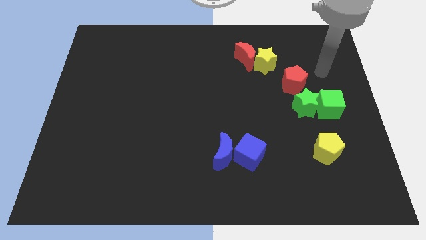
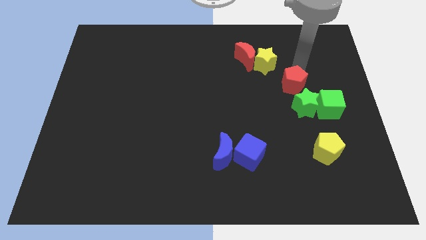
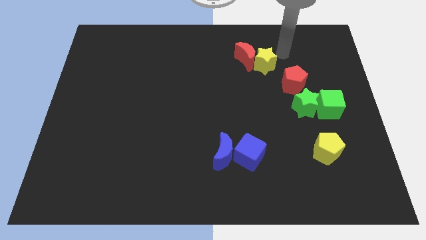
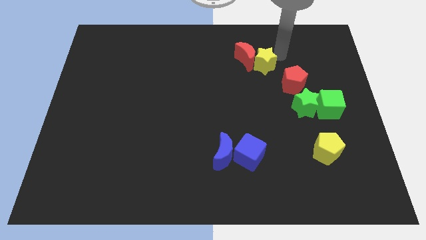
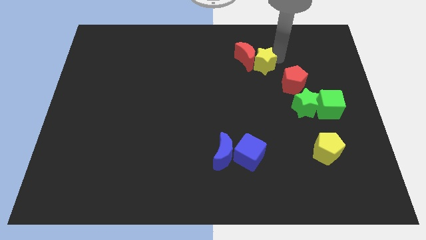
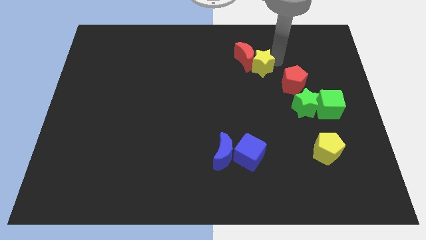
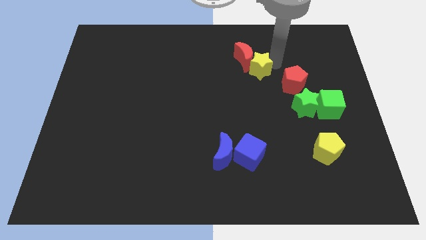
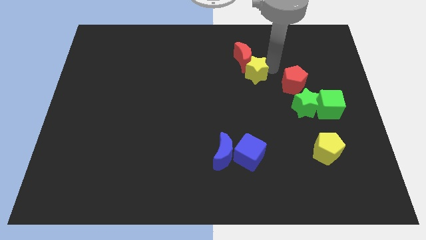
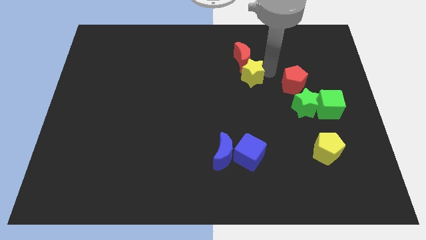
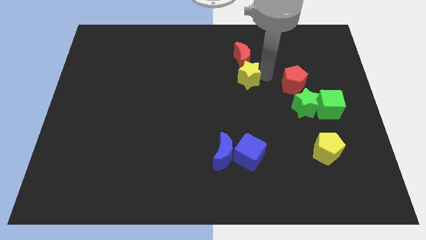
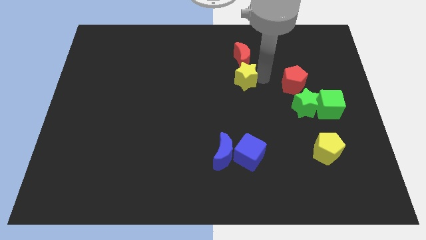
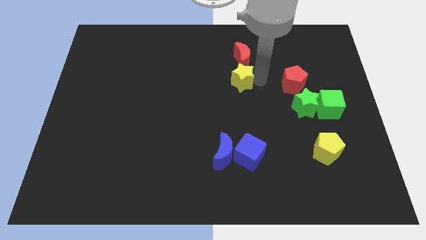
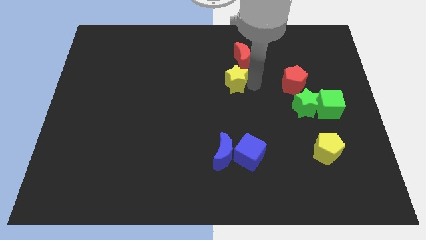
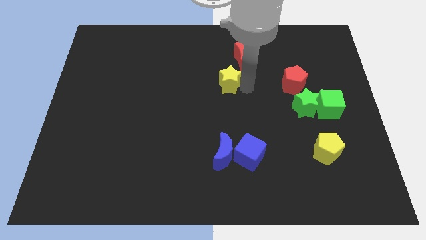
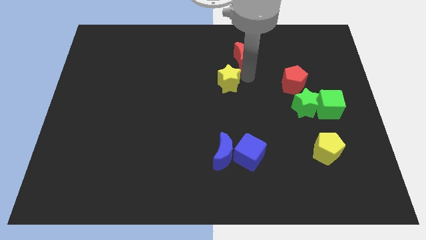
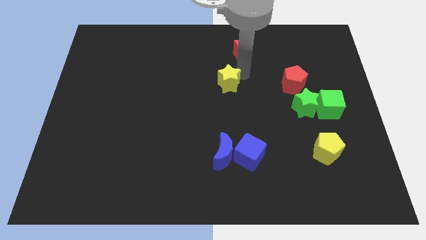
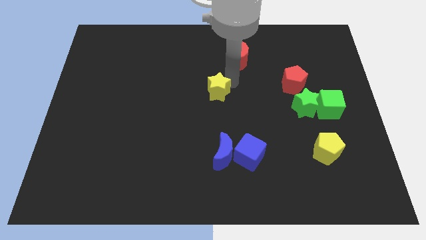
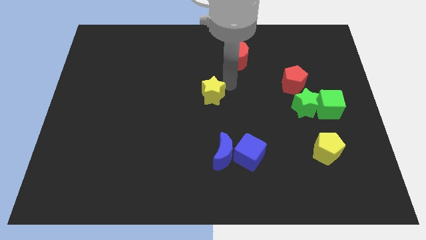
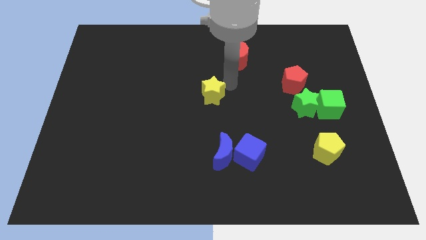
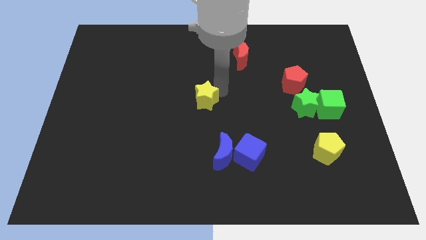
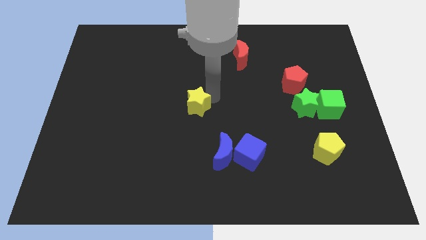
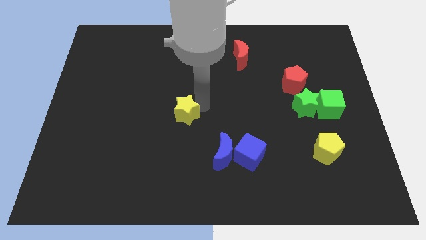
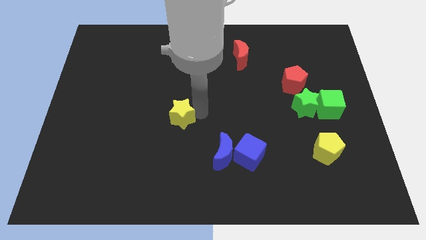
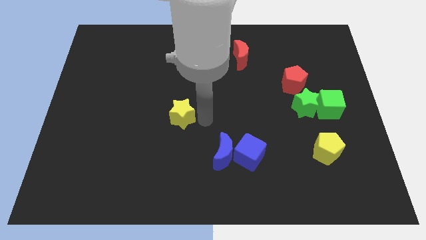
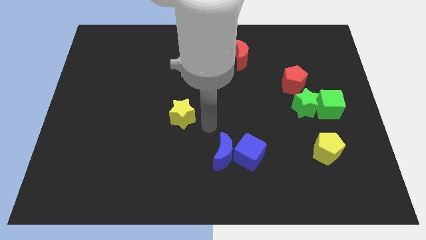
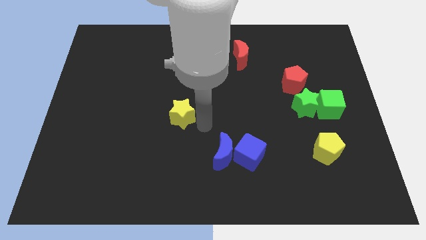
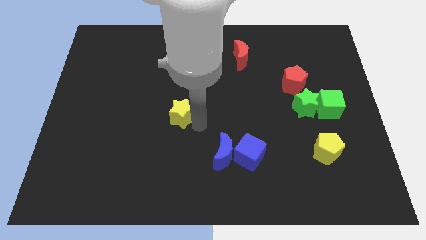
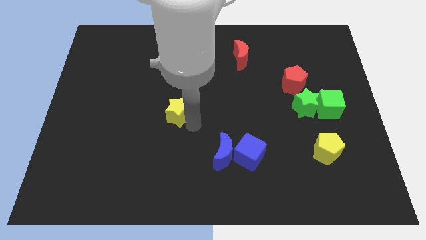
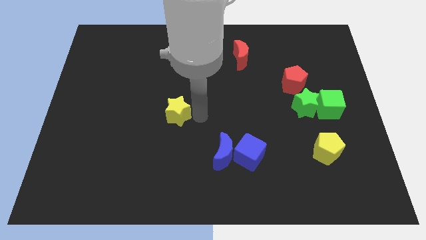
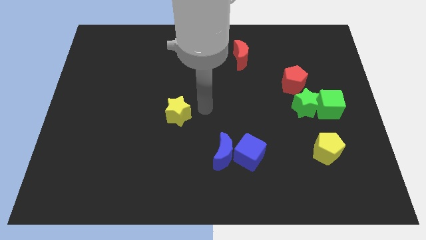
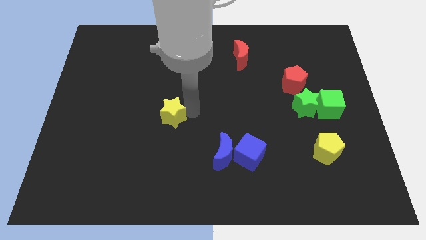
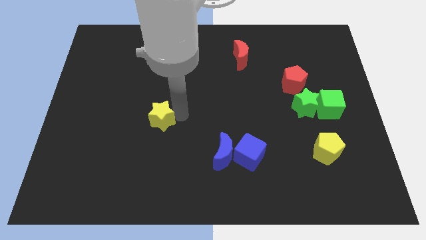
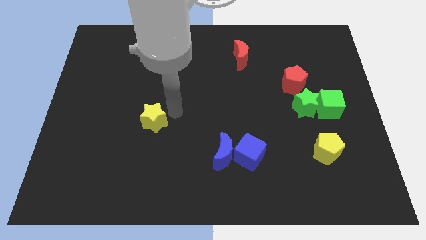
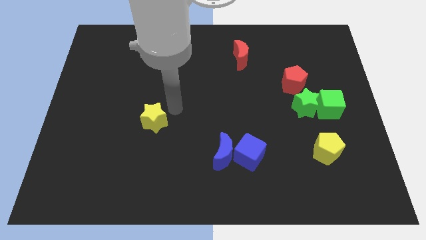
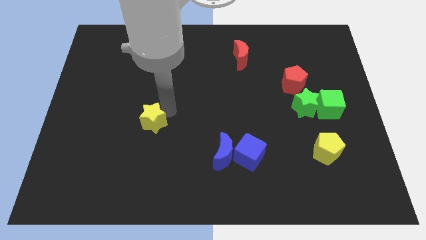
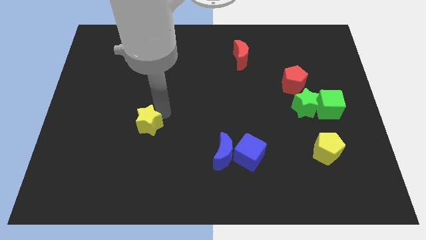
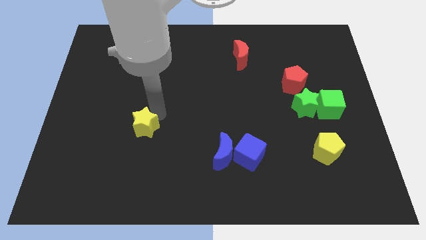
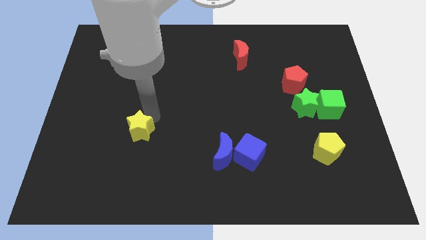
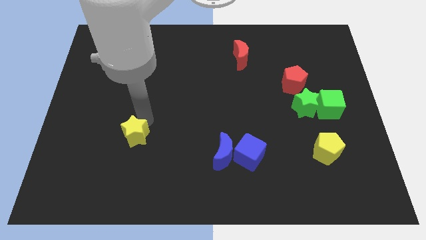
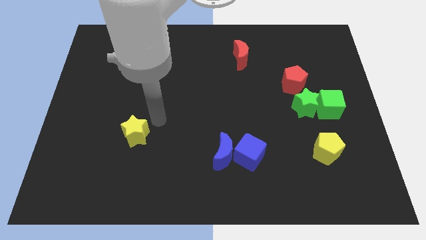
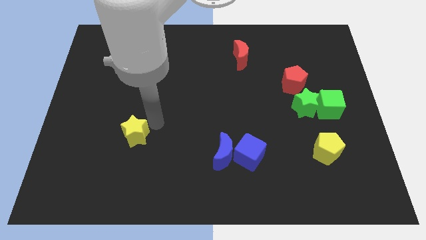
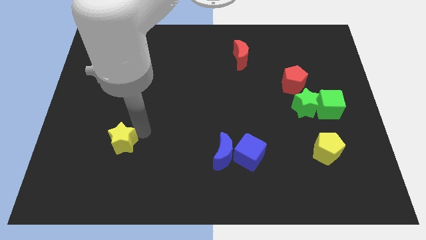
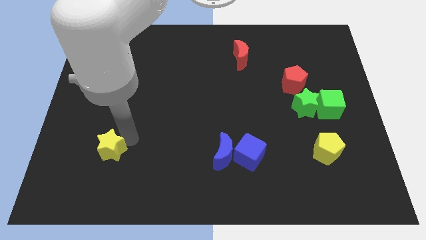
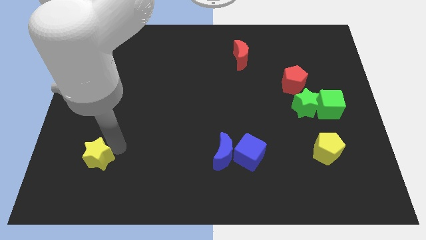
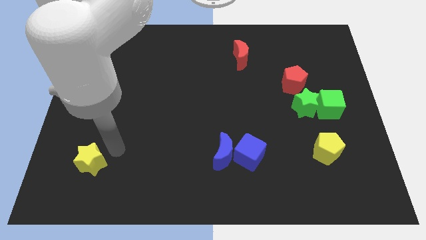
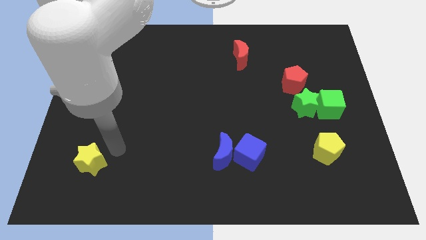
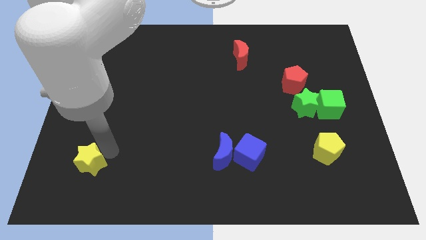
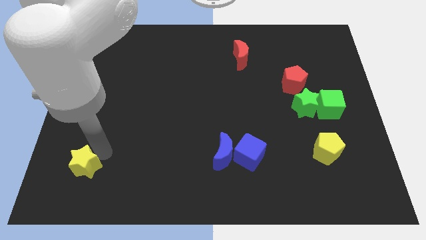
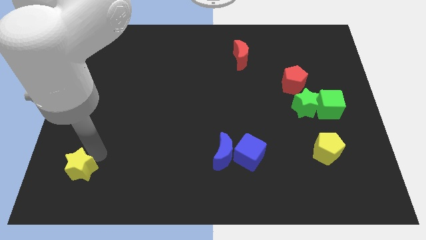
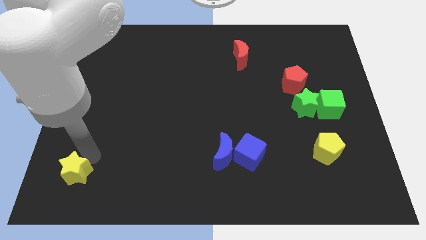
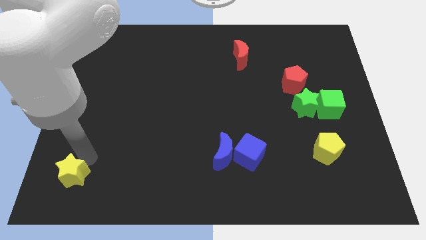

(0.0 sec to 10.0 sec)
put the yellow star to the bottom left of the board

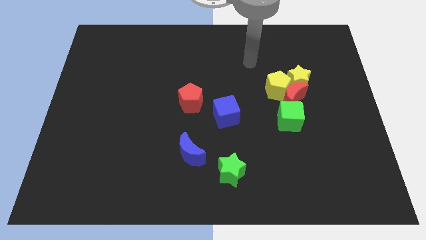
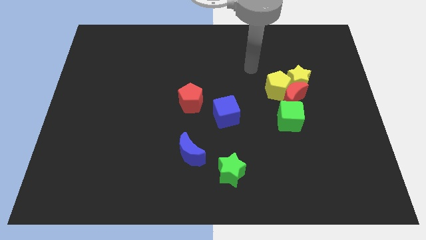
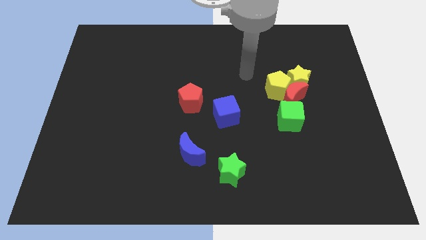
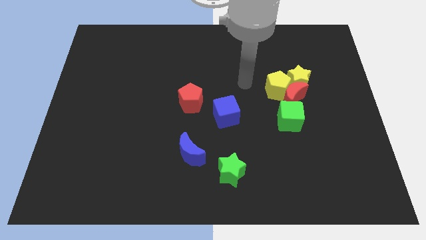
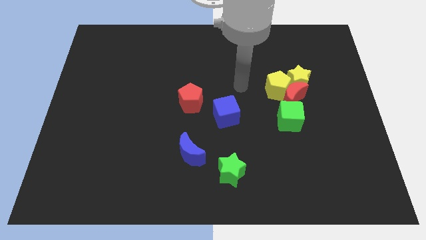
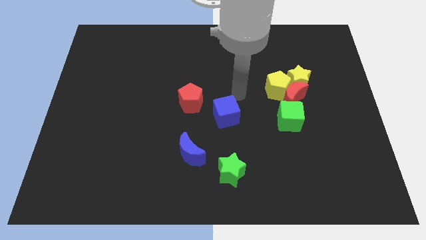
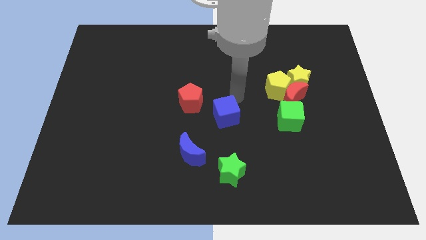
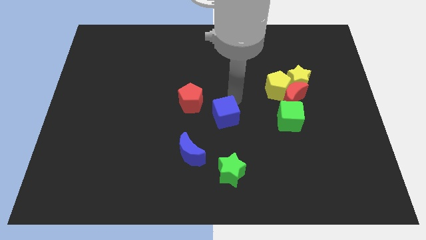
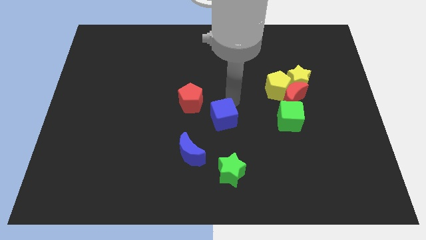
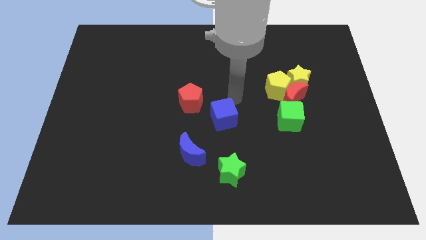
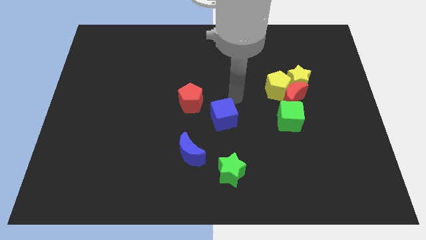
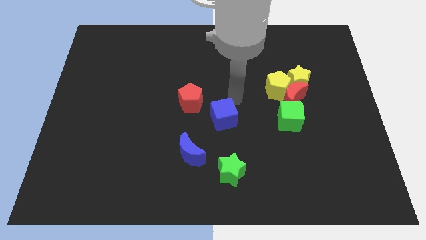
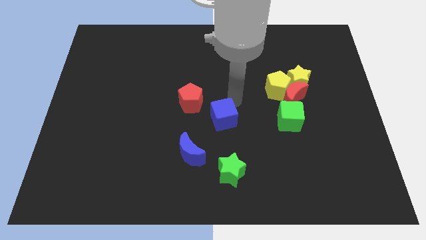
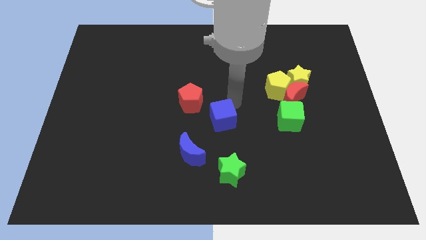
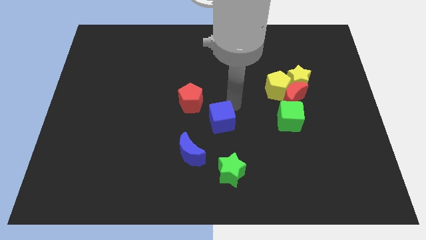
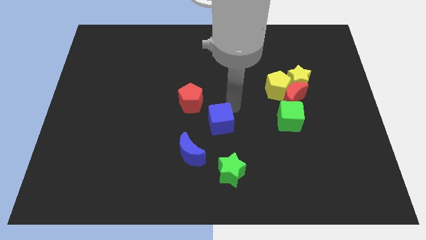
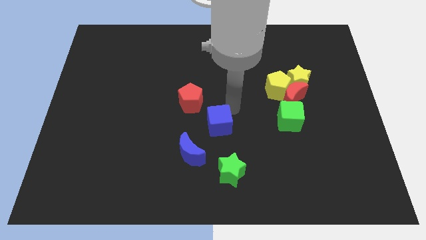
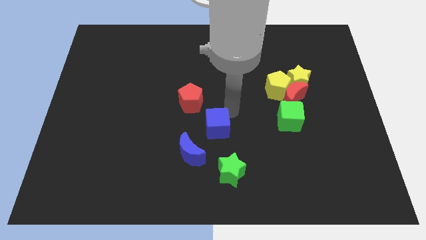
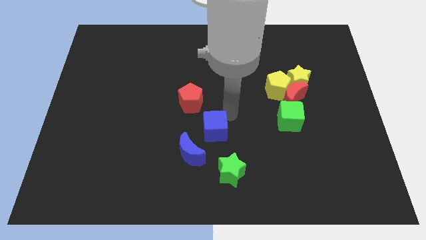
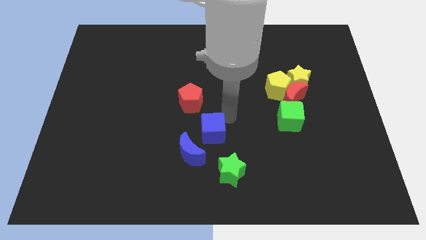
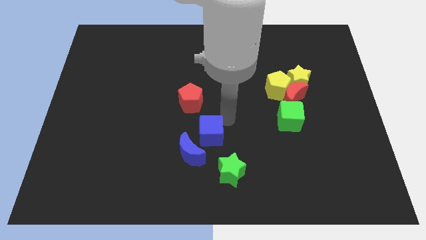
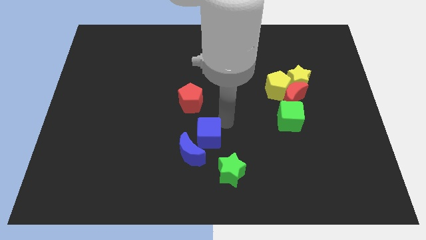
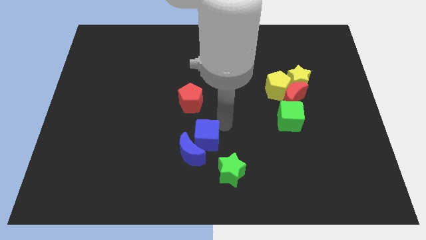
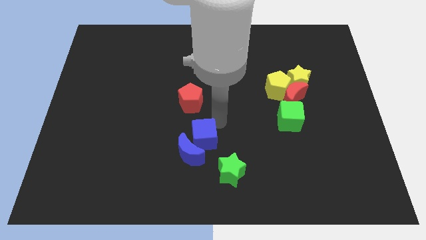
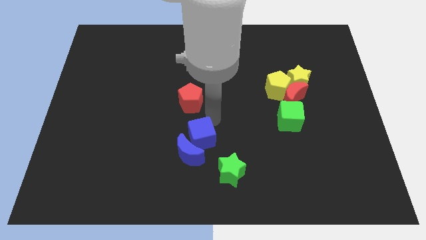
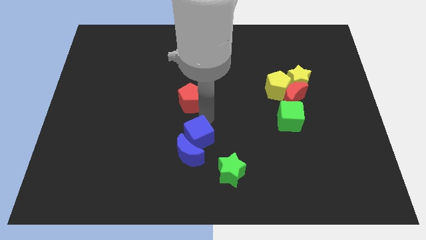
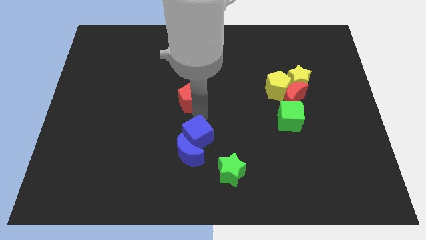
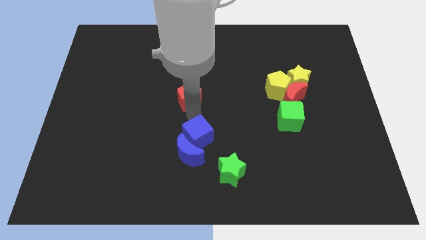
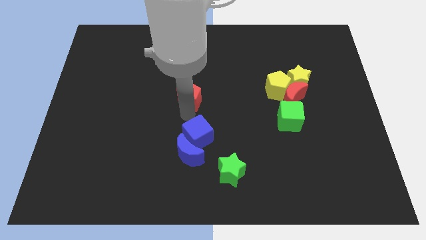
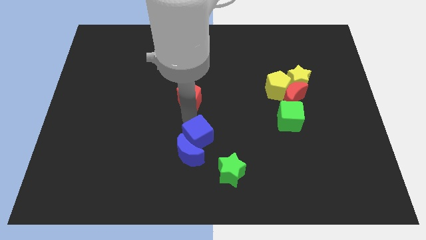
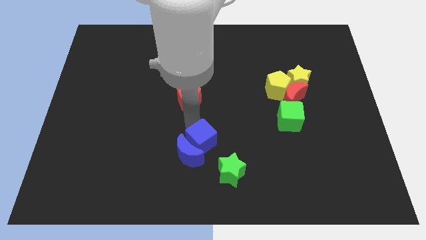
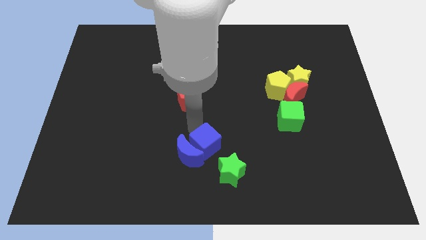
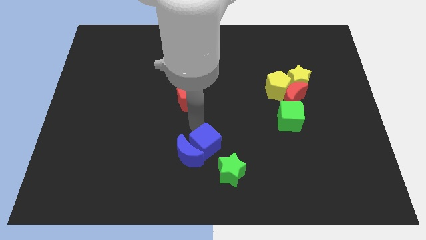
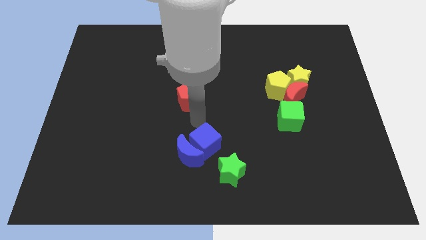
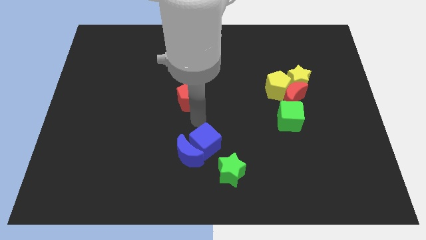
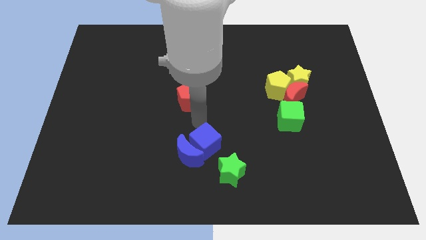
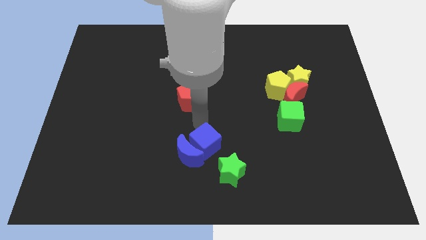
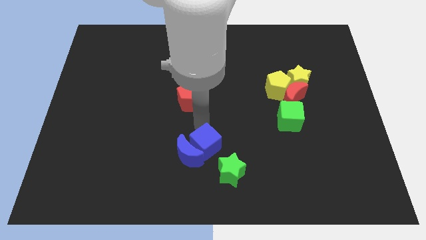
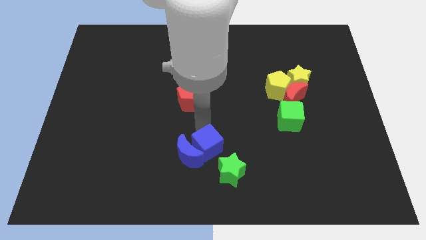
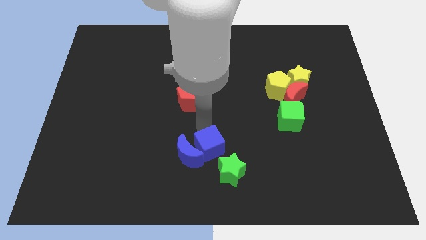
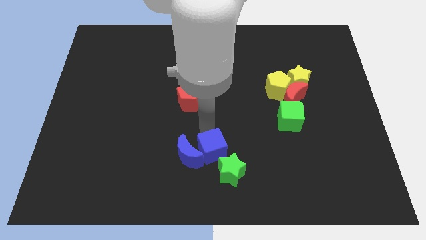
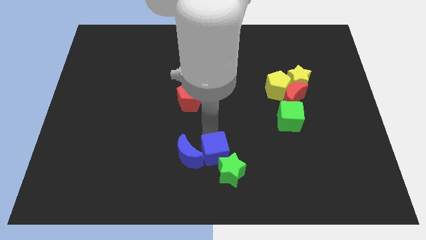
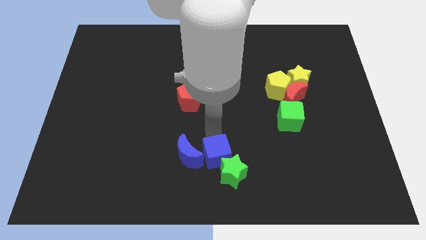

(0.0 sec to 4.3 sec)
put the blue cube to the bottom
